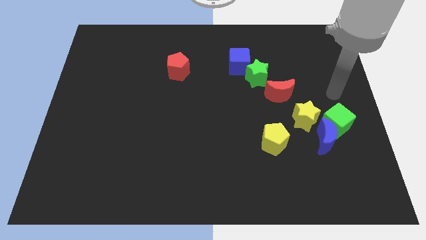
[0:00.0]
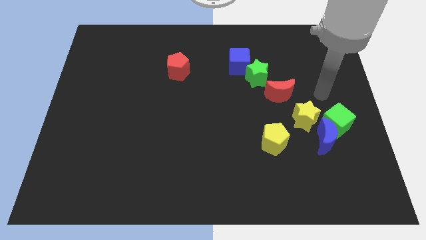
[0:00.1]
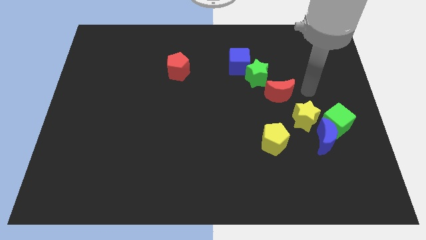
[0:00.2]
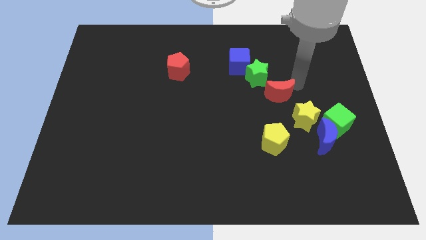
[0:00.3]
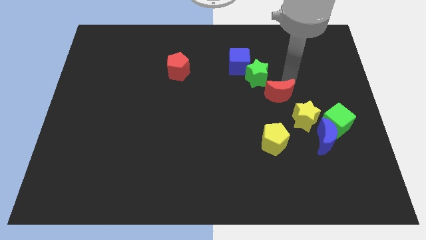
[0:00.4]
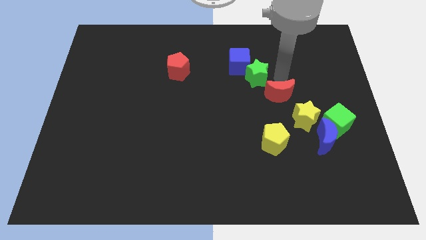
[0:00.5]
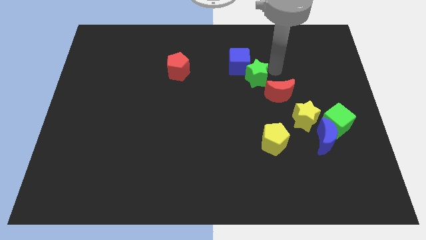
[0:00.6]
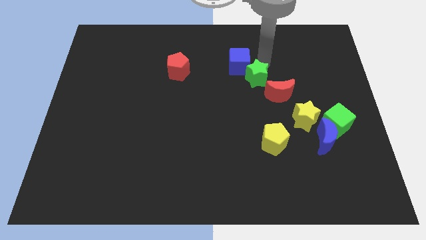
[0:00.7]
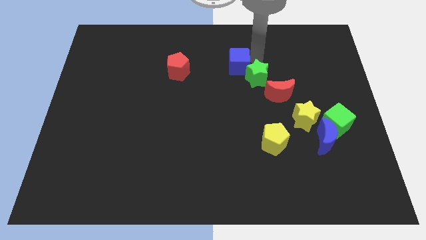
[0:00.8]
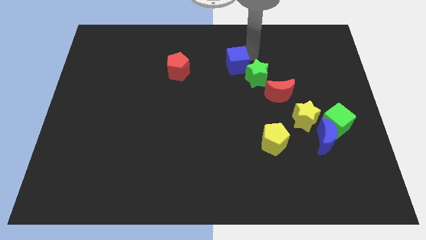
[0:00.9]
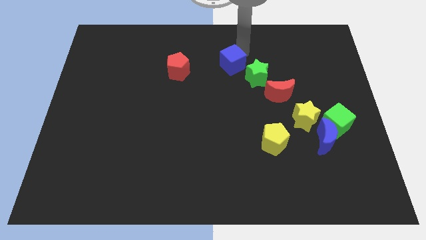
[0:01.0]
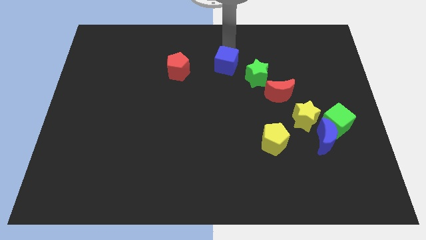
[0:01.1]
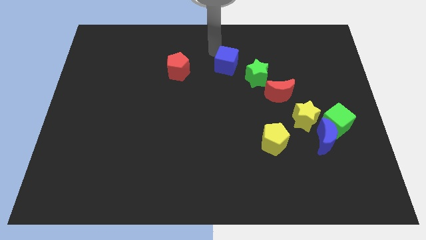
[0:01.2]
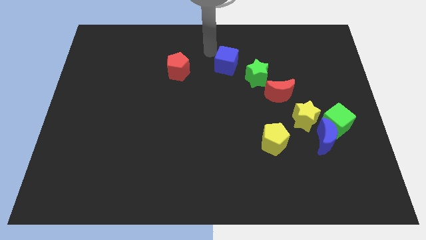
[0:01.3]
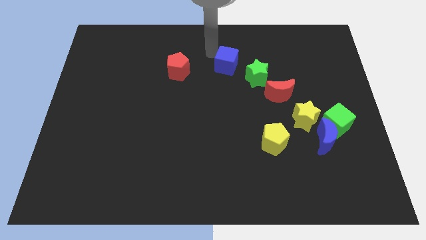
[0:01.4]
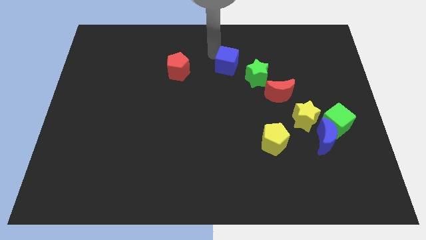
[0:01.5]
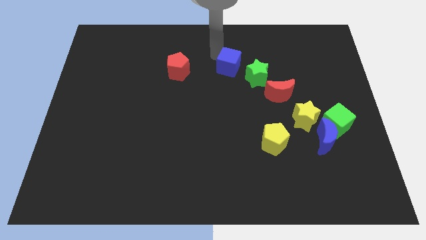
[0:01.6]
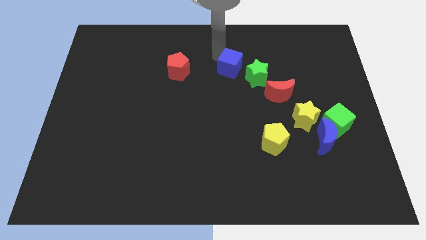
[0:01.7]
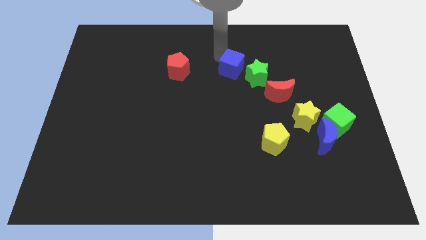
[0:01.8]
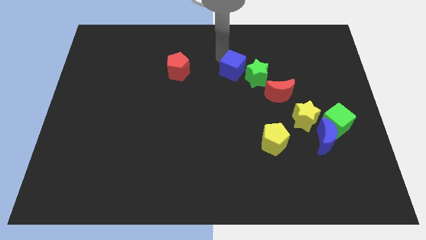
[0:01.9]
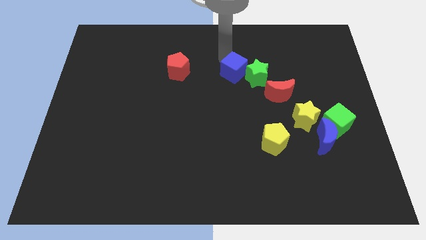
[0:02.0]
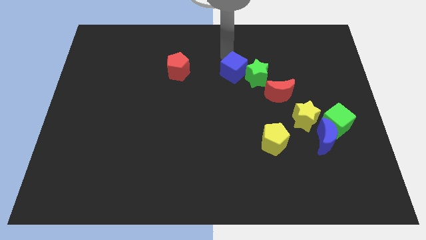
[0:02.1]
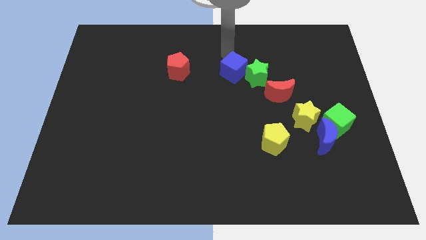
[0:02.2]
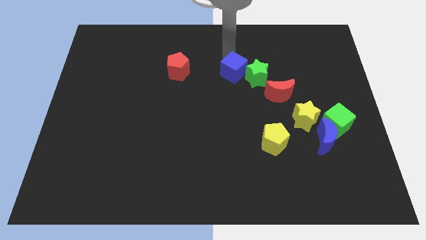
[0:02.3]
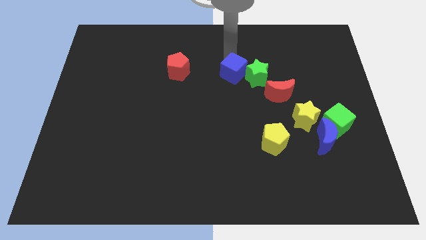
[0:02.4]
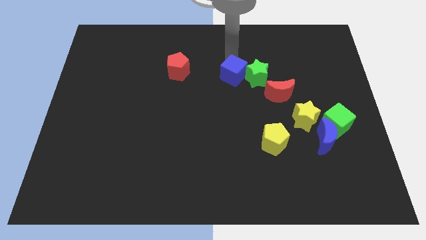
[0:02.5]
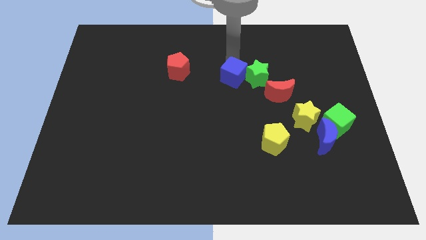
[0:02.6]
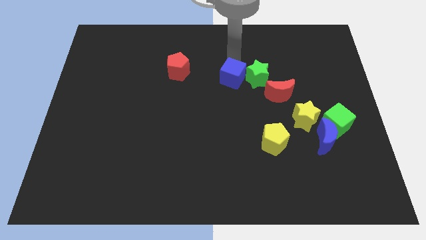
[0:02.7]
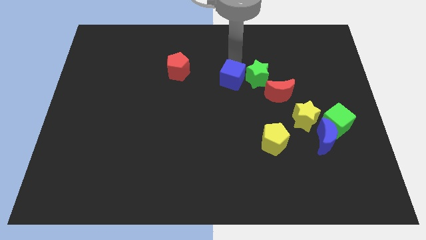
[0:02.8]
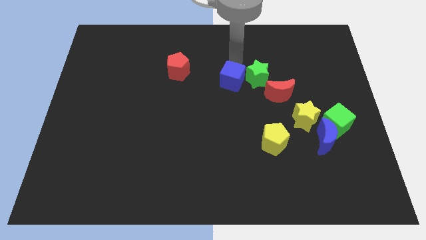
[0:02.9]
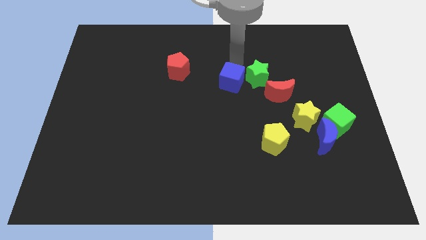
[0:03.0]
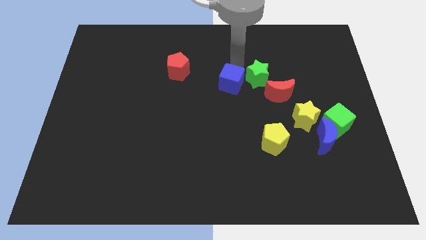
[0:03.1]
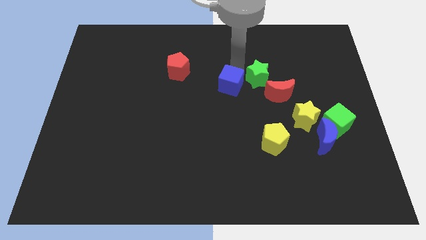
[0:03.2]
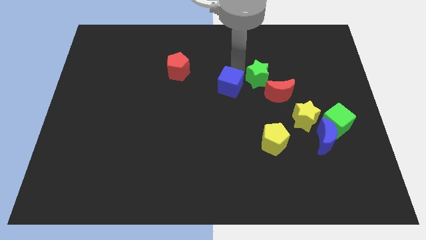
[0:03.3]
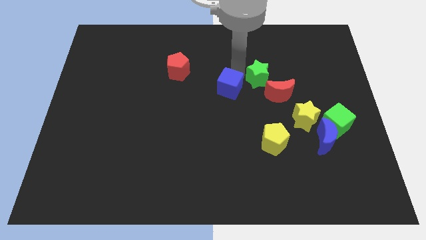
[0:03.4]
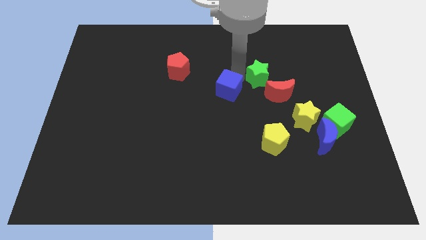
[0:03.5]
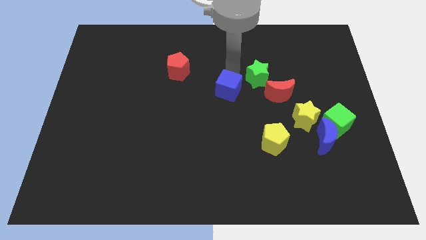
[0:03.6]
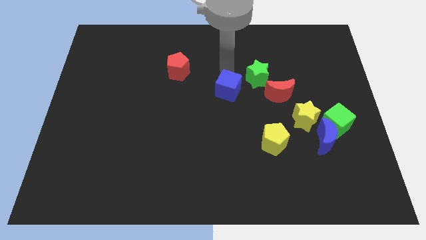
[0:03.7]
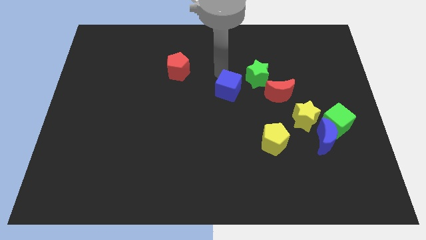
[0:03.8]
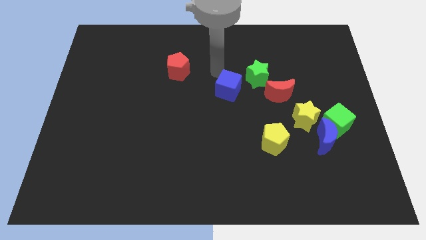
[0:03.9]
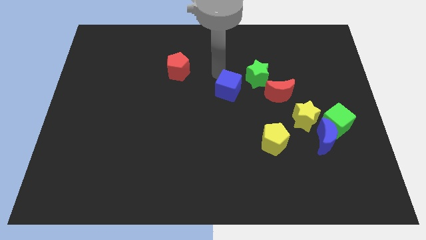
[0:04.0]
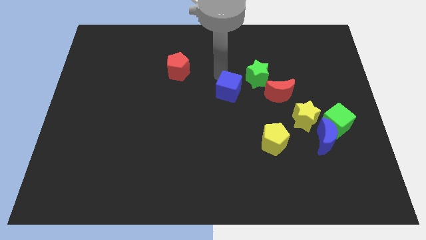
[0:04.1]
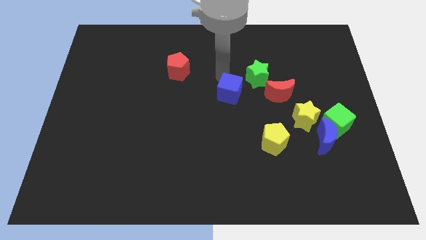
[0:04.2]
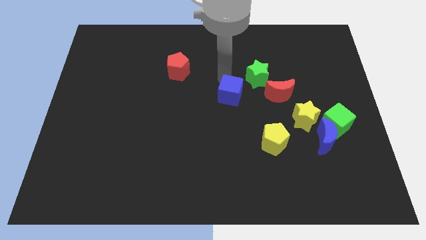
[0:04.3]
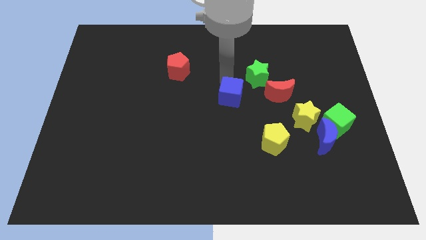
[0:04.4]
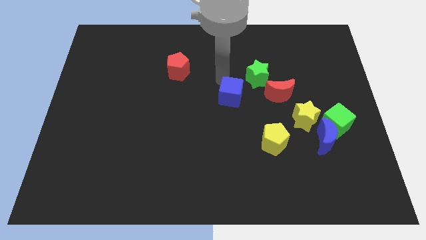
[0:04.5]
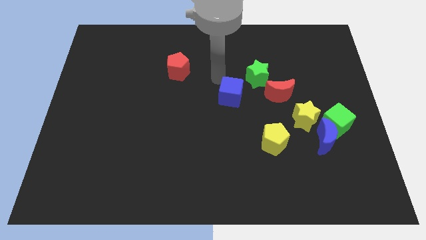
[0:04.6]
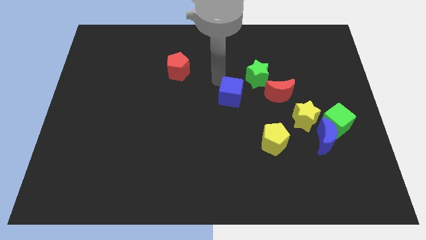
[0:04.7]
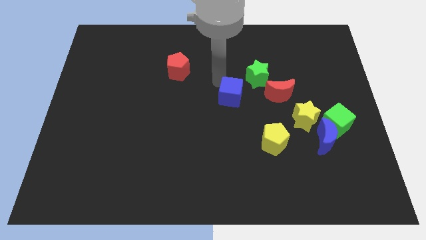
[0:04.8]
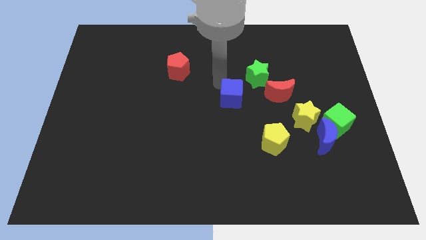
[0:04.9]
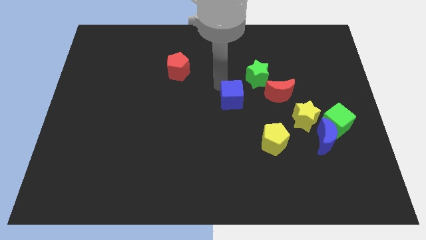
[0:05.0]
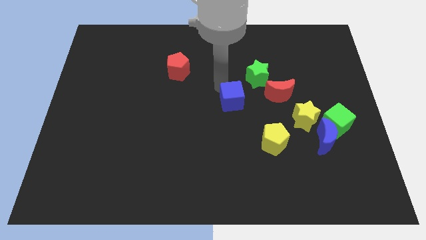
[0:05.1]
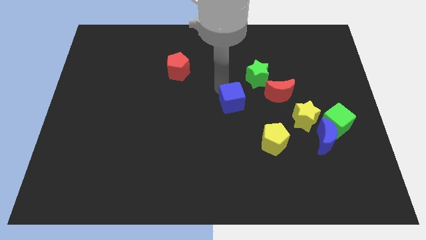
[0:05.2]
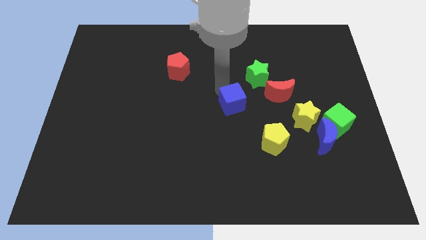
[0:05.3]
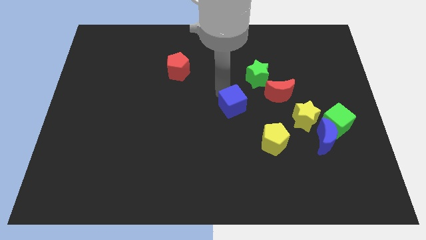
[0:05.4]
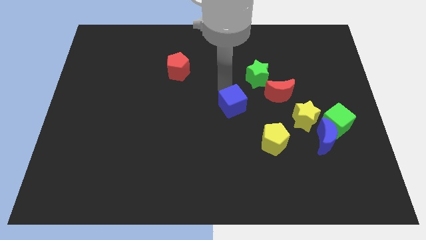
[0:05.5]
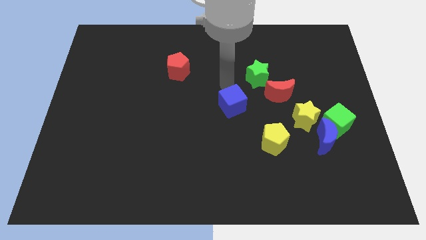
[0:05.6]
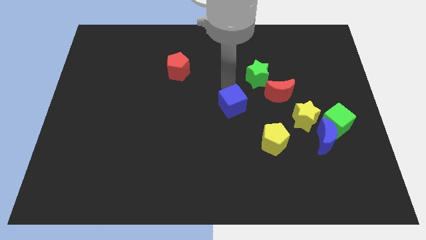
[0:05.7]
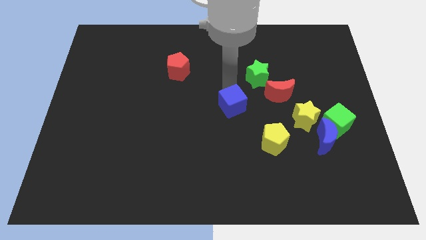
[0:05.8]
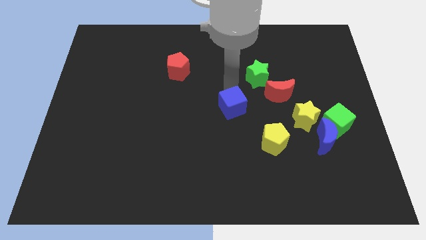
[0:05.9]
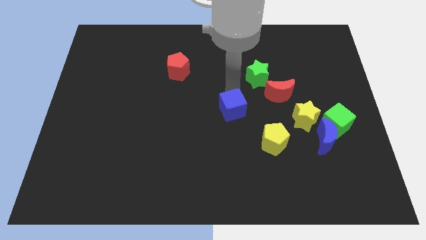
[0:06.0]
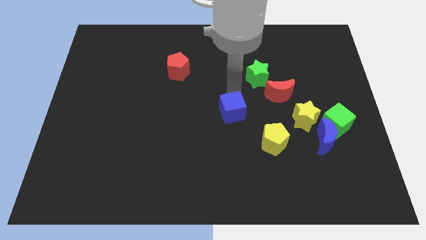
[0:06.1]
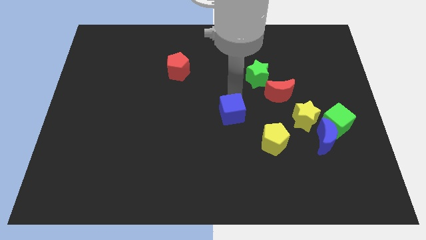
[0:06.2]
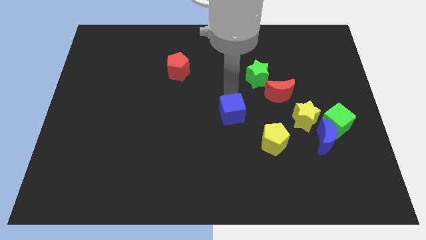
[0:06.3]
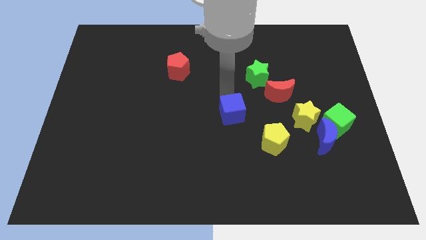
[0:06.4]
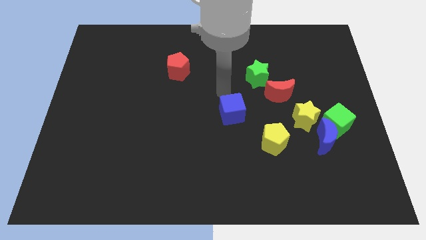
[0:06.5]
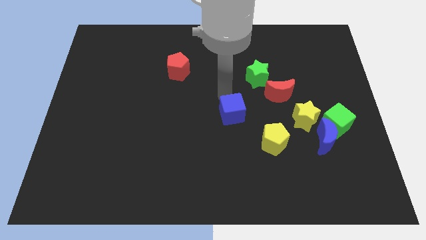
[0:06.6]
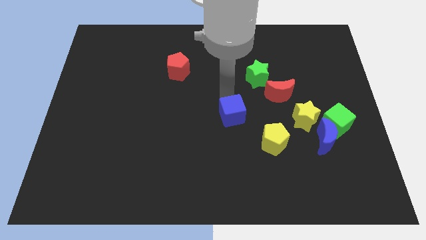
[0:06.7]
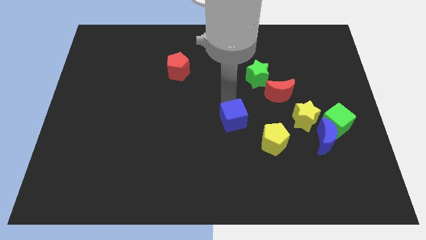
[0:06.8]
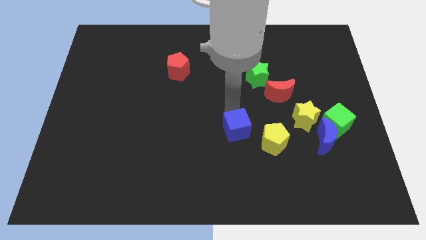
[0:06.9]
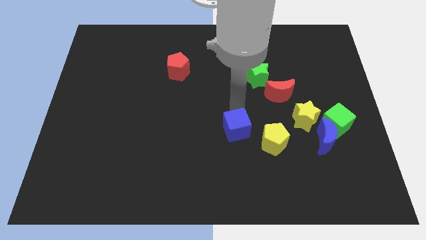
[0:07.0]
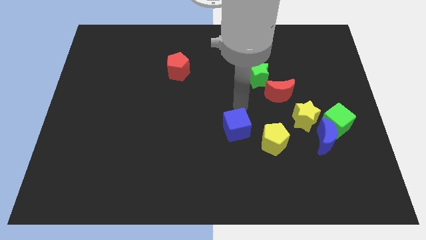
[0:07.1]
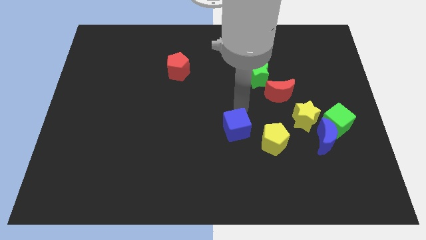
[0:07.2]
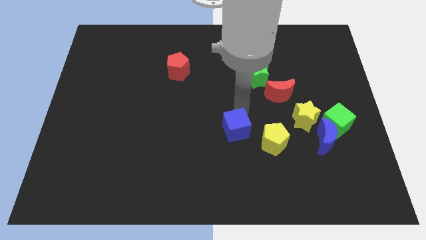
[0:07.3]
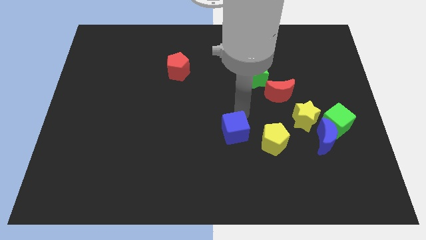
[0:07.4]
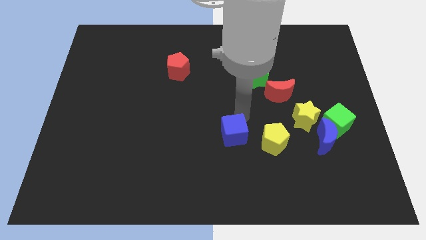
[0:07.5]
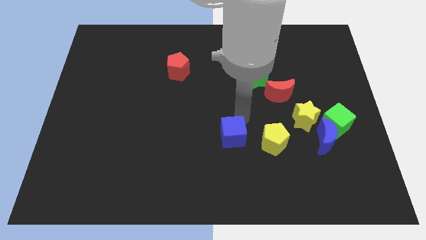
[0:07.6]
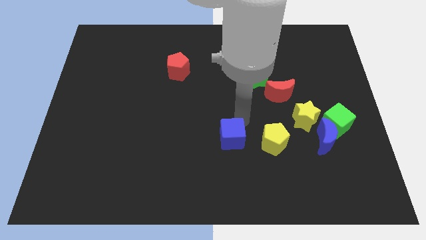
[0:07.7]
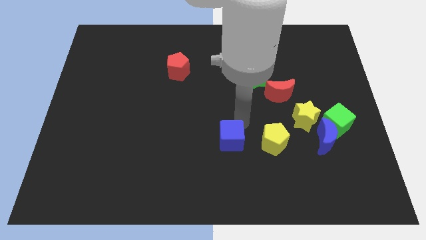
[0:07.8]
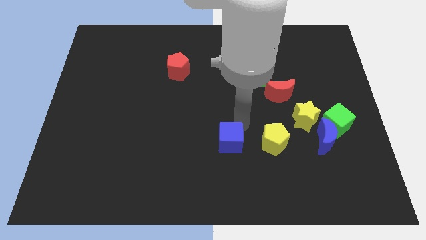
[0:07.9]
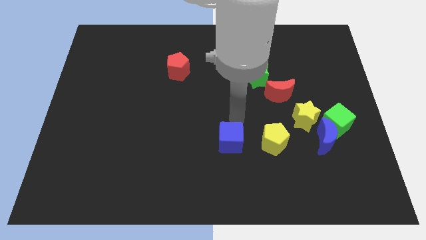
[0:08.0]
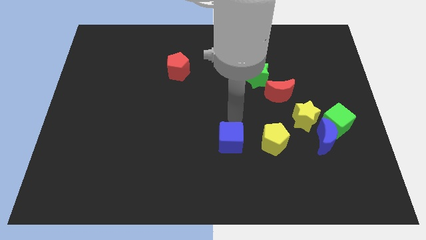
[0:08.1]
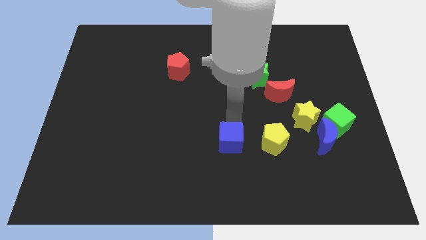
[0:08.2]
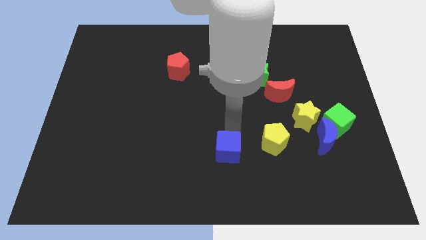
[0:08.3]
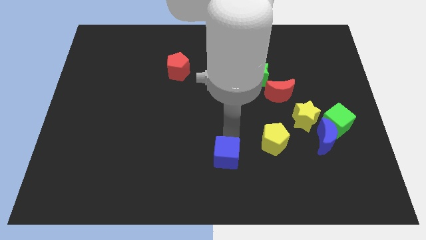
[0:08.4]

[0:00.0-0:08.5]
put the blue cube to the bottom
